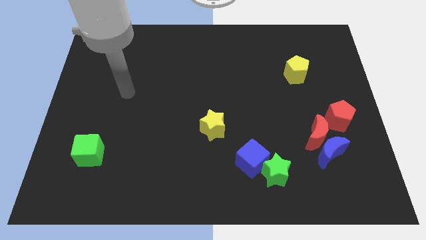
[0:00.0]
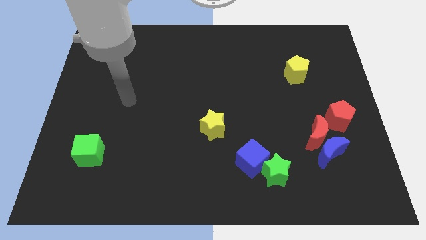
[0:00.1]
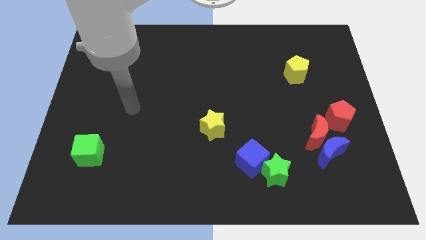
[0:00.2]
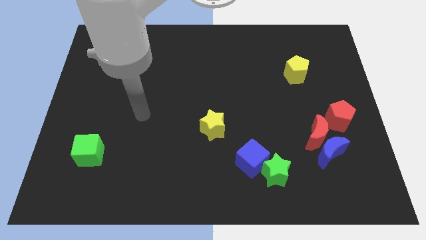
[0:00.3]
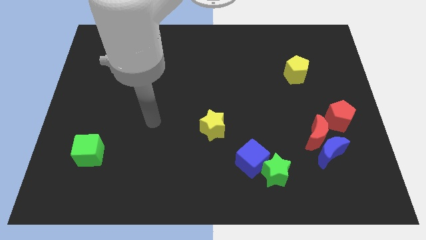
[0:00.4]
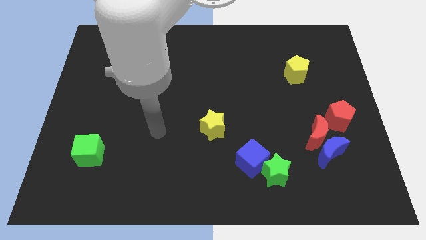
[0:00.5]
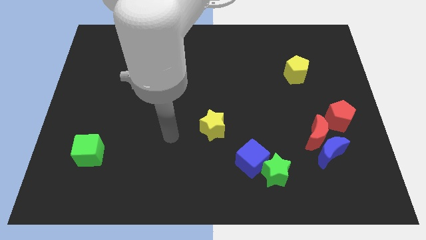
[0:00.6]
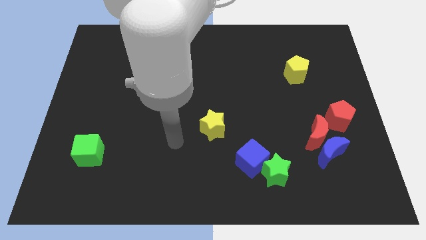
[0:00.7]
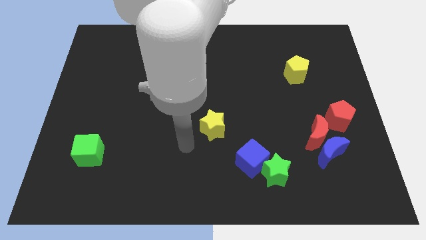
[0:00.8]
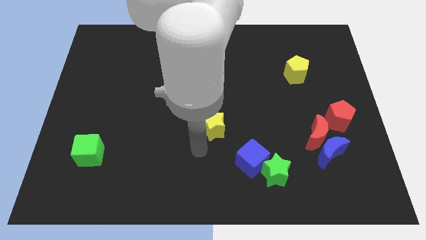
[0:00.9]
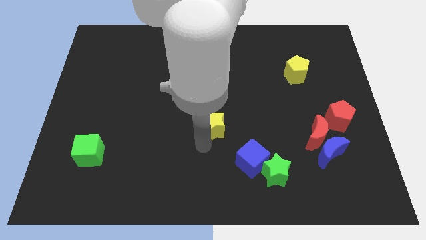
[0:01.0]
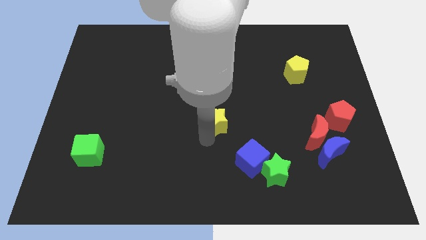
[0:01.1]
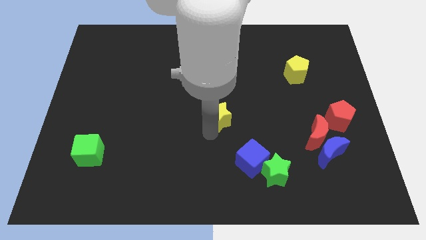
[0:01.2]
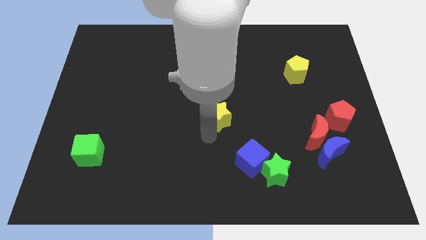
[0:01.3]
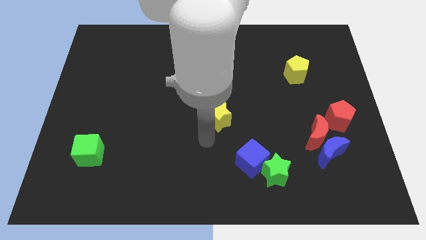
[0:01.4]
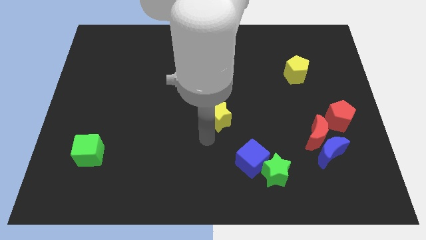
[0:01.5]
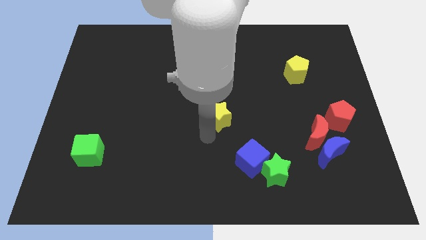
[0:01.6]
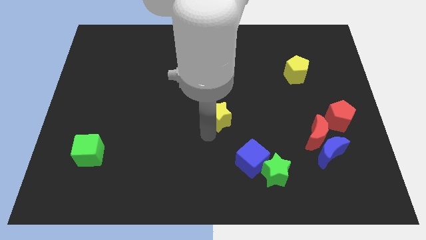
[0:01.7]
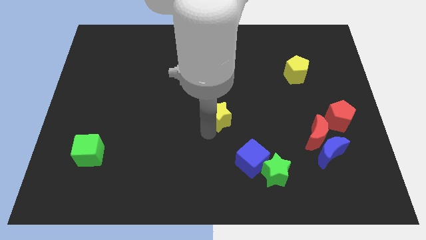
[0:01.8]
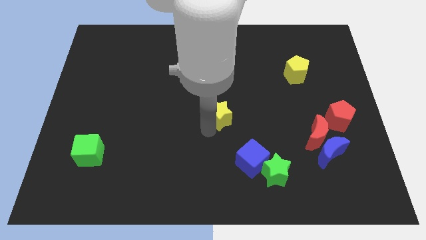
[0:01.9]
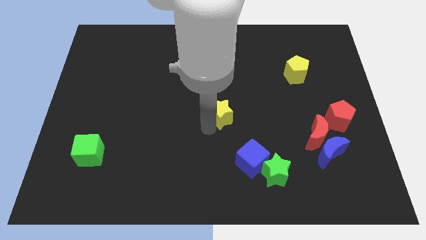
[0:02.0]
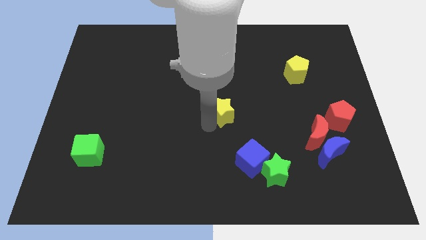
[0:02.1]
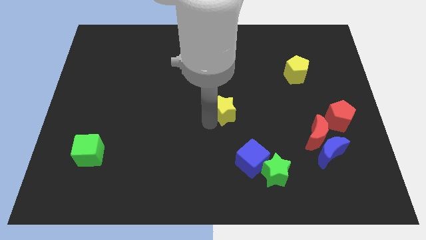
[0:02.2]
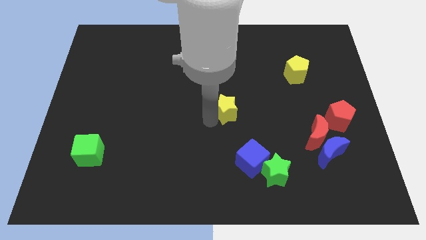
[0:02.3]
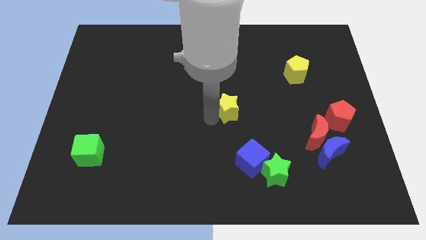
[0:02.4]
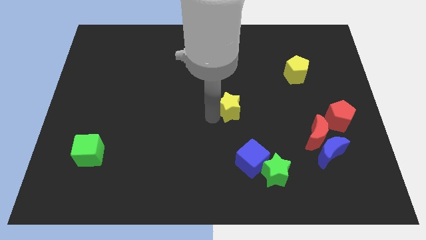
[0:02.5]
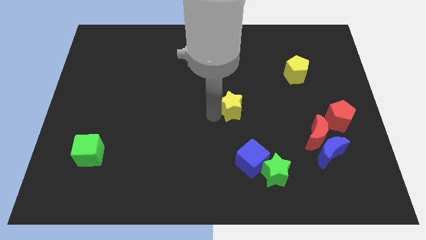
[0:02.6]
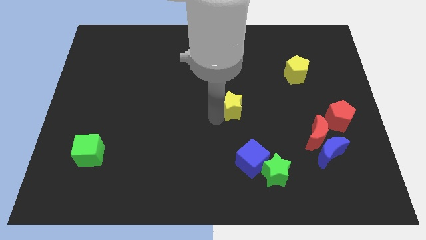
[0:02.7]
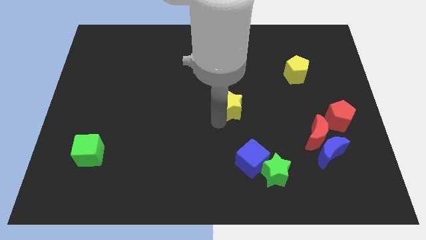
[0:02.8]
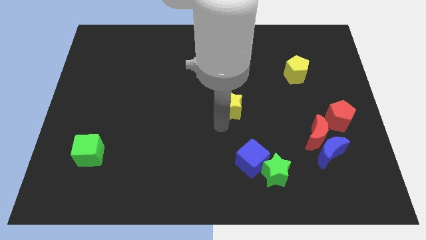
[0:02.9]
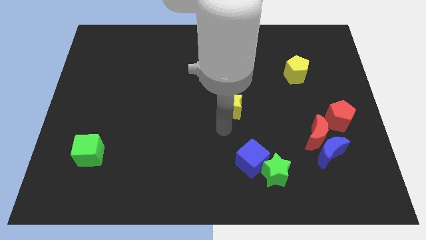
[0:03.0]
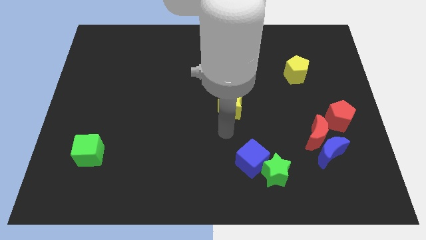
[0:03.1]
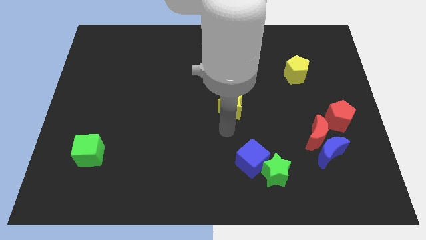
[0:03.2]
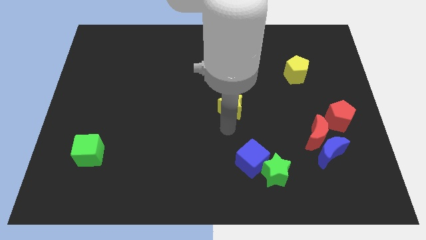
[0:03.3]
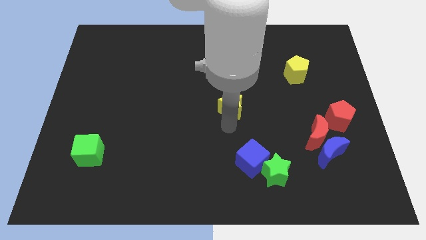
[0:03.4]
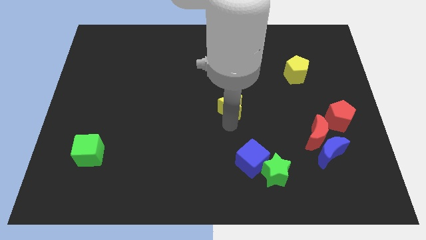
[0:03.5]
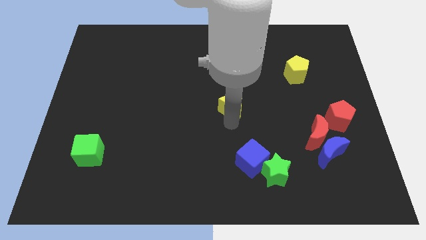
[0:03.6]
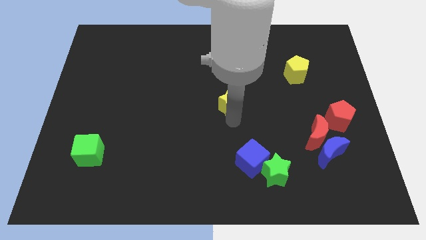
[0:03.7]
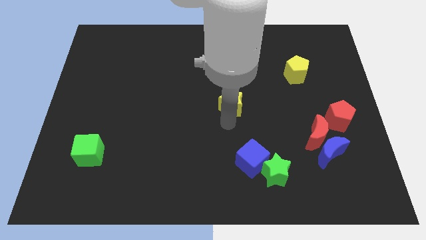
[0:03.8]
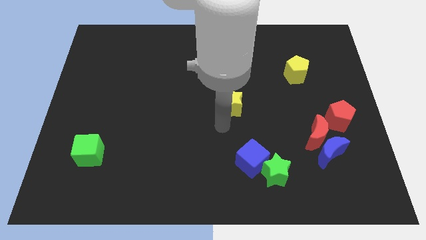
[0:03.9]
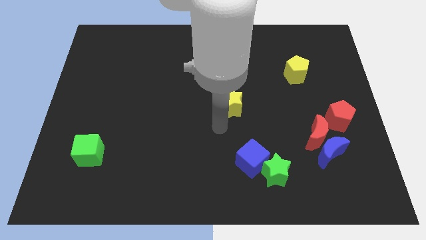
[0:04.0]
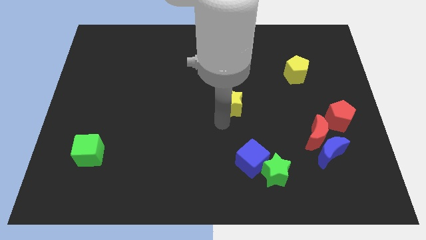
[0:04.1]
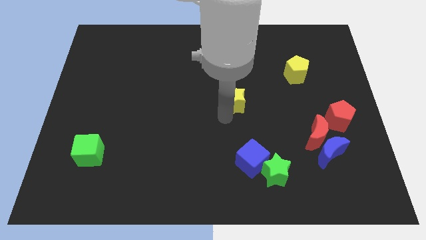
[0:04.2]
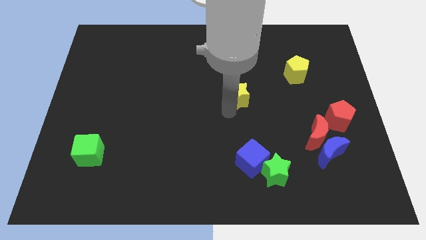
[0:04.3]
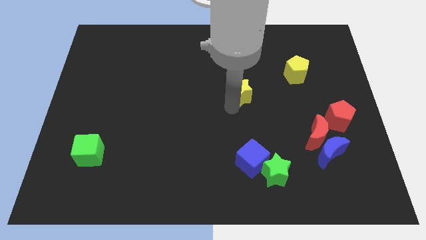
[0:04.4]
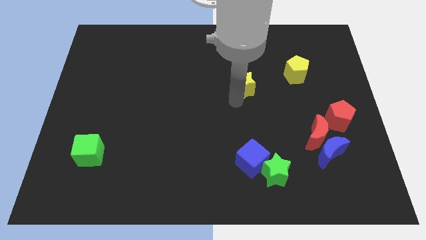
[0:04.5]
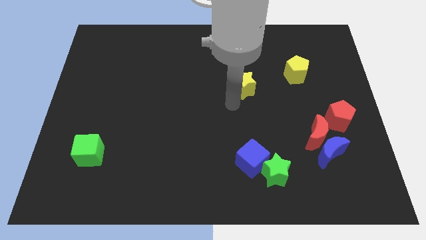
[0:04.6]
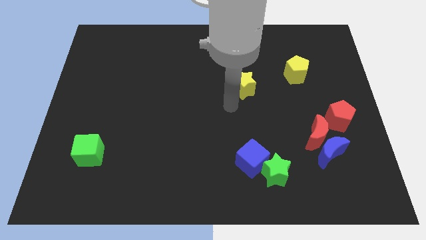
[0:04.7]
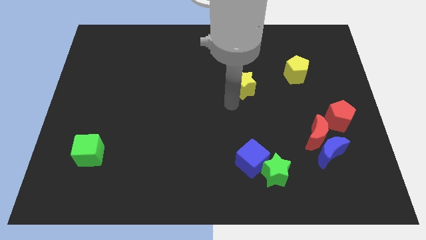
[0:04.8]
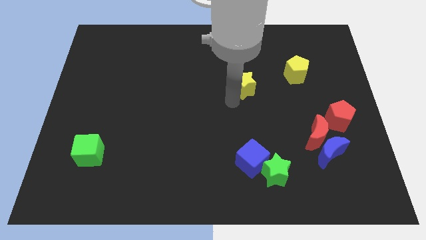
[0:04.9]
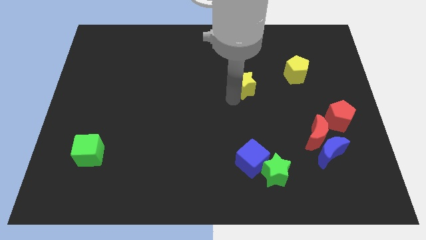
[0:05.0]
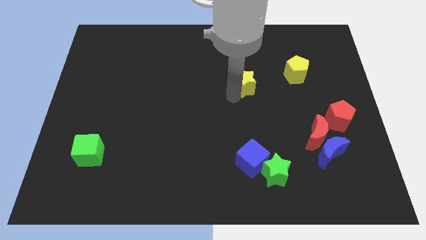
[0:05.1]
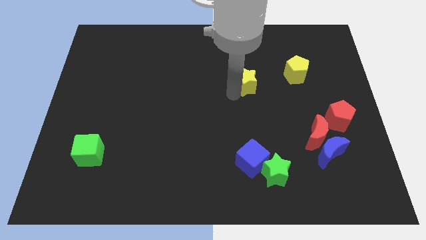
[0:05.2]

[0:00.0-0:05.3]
push the yellow star left of the yellow pentagon

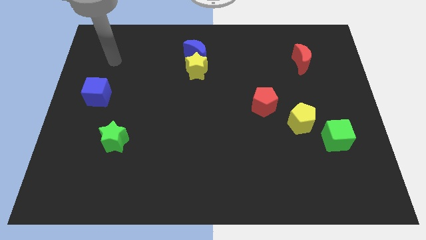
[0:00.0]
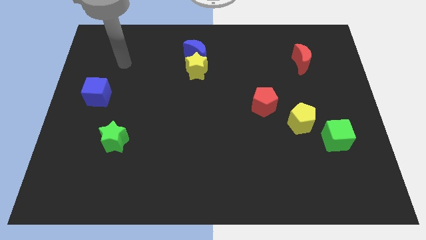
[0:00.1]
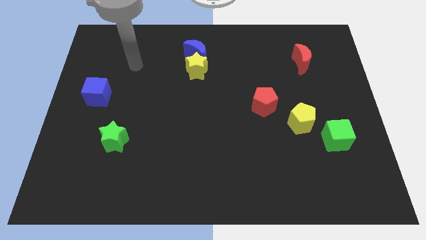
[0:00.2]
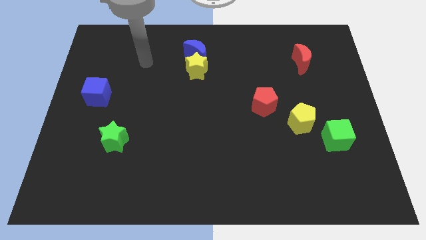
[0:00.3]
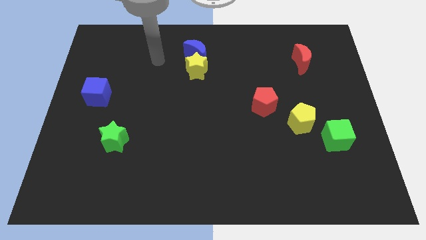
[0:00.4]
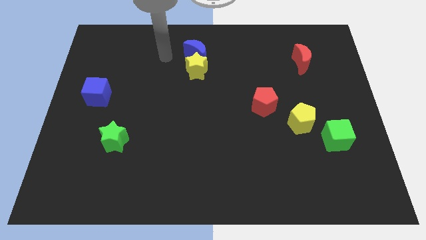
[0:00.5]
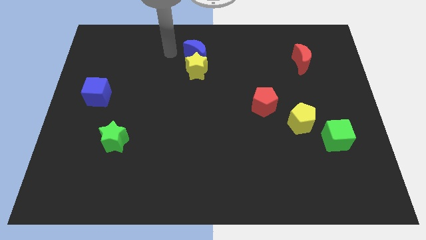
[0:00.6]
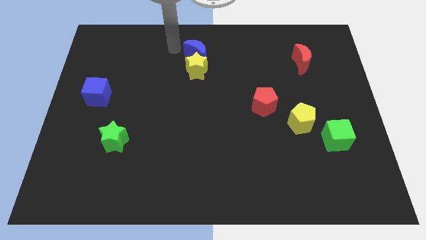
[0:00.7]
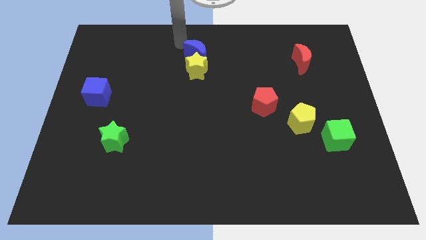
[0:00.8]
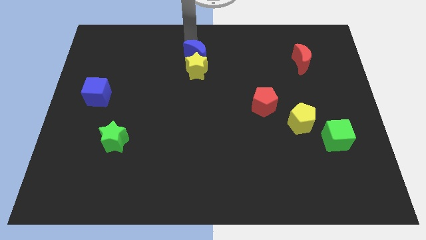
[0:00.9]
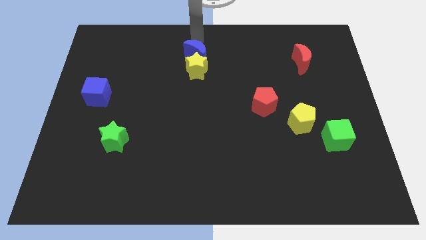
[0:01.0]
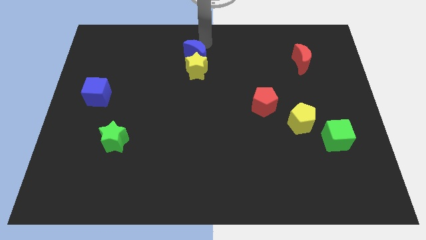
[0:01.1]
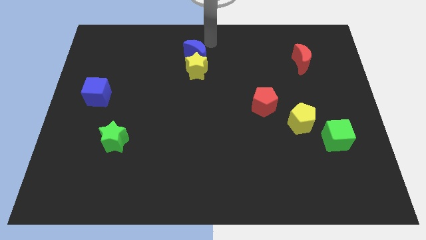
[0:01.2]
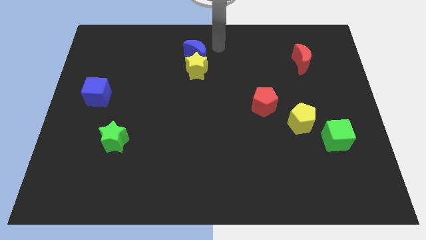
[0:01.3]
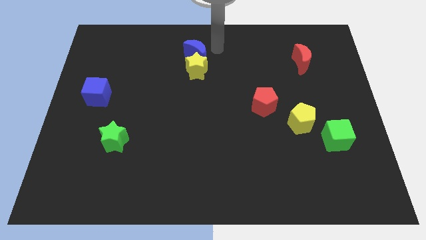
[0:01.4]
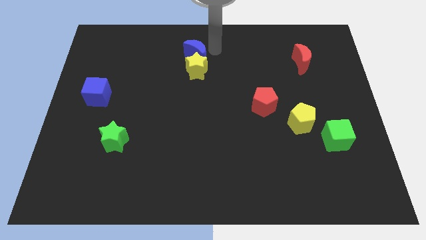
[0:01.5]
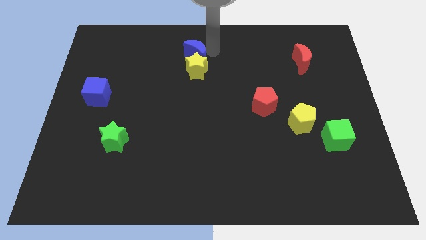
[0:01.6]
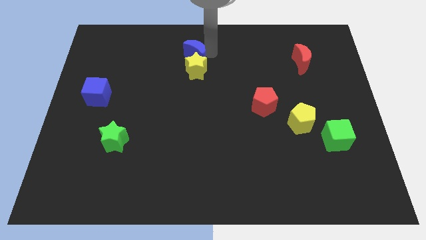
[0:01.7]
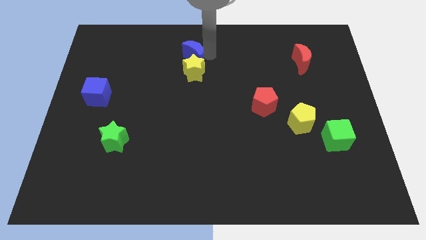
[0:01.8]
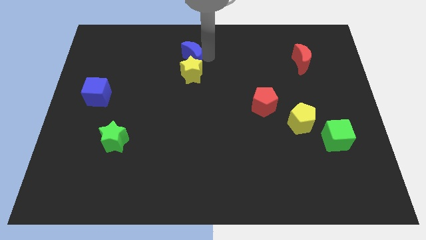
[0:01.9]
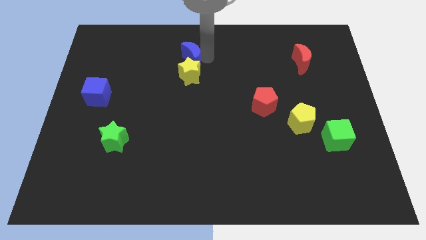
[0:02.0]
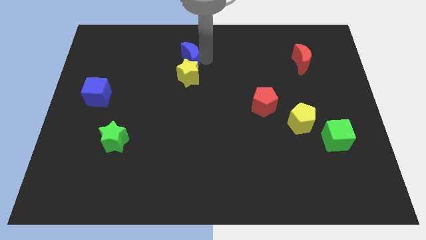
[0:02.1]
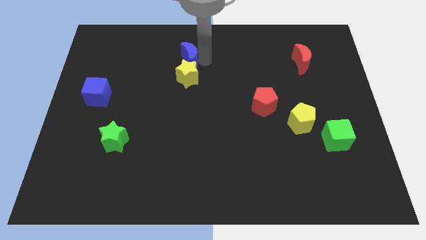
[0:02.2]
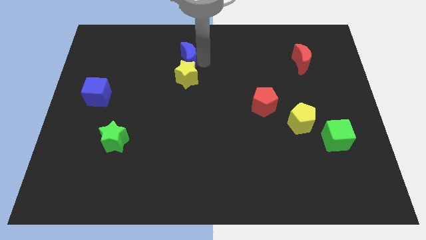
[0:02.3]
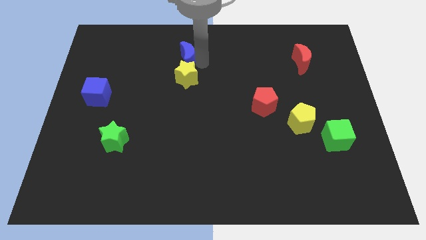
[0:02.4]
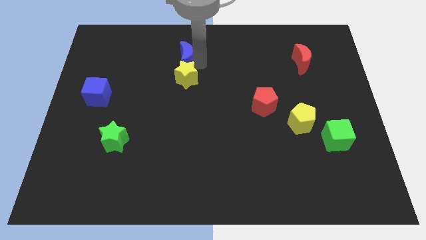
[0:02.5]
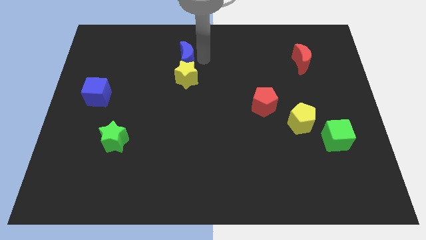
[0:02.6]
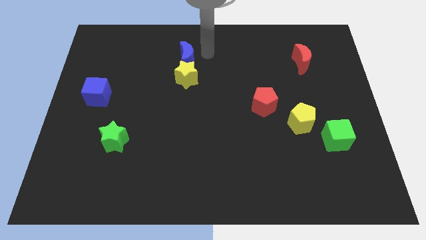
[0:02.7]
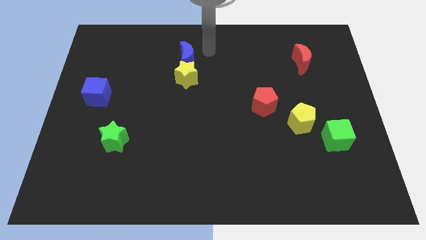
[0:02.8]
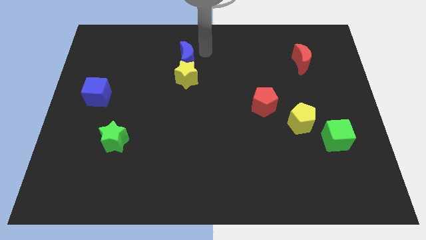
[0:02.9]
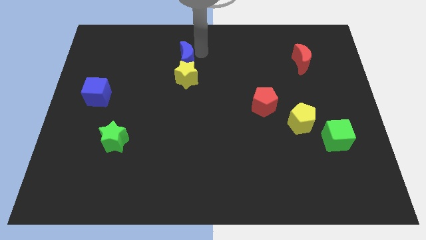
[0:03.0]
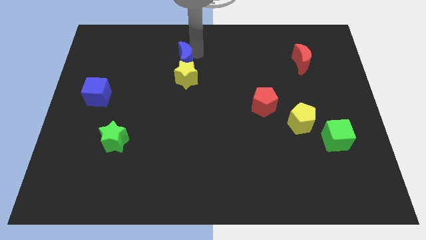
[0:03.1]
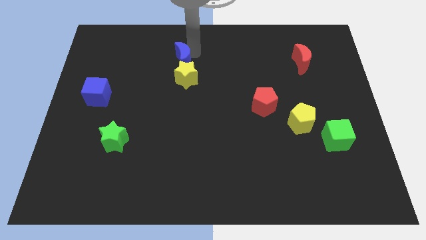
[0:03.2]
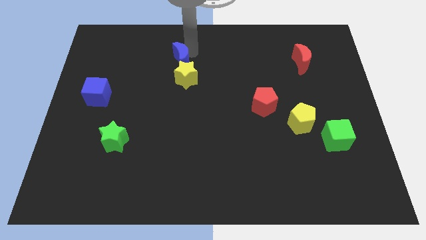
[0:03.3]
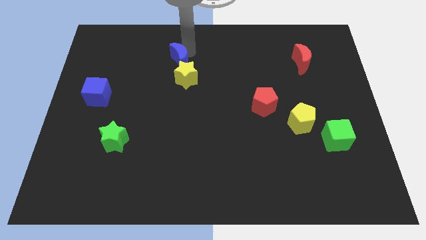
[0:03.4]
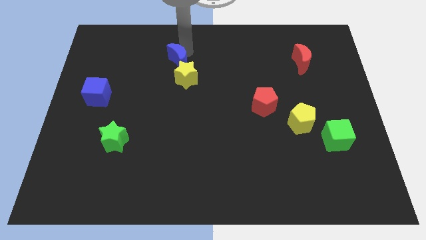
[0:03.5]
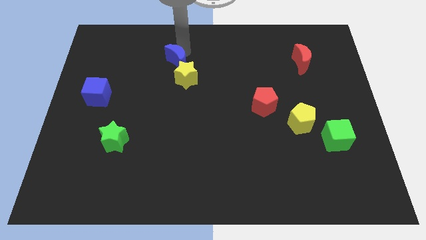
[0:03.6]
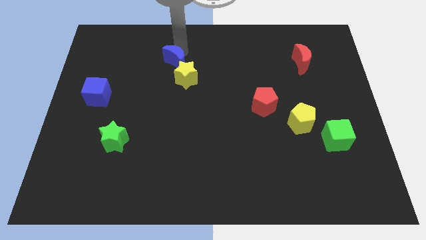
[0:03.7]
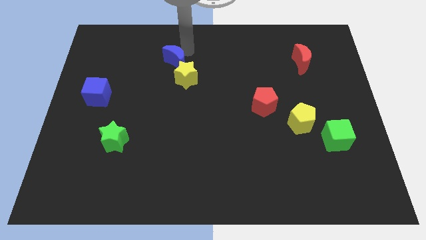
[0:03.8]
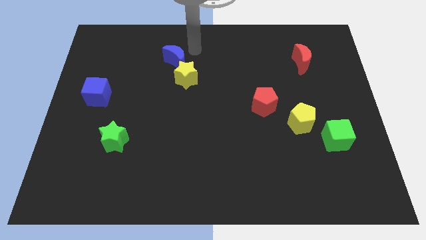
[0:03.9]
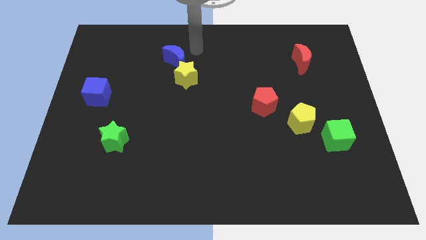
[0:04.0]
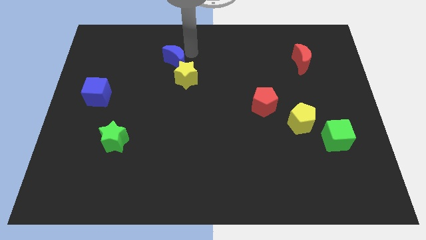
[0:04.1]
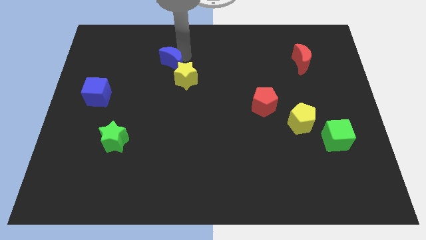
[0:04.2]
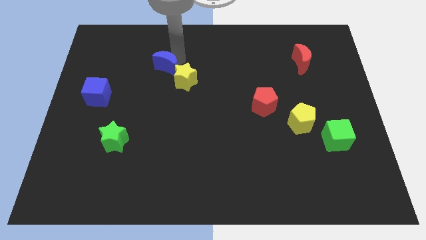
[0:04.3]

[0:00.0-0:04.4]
put the blue moon just left of the yellow star
